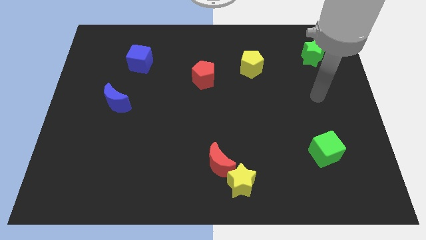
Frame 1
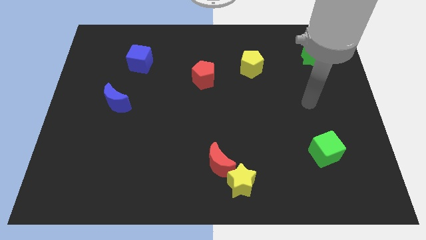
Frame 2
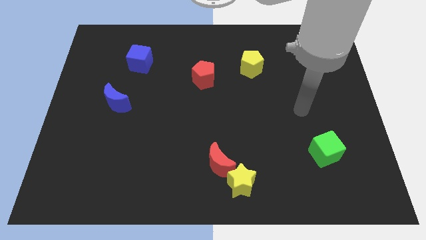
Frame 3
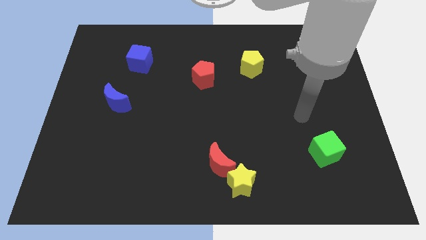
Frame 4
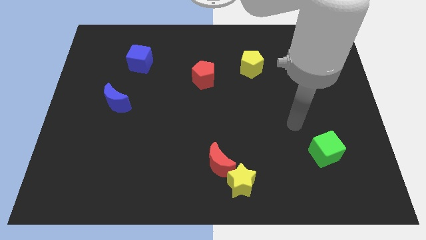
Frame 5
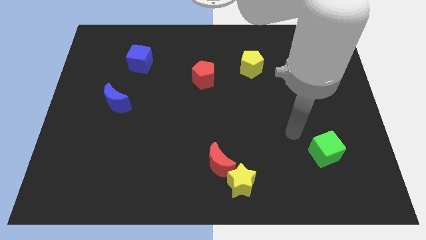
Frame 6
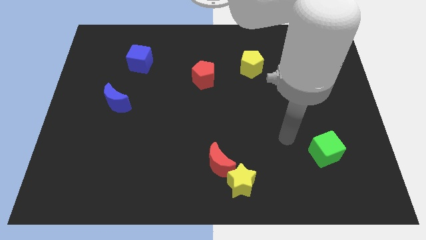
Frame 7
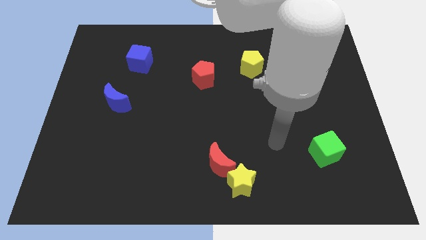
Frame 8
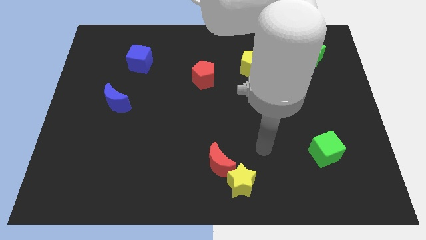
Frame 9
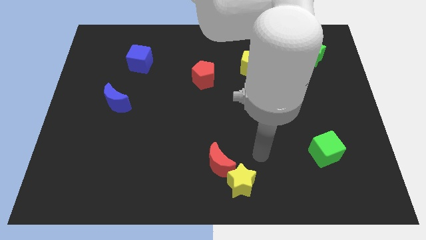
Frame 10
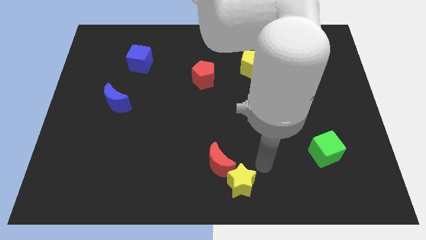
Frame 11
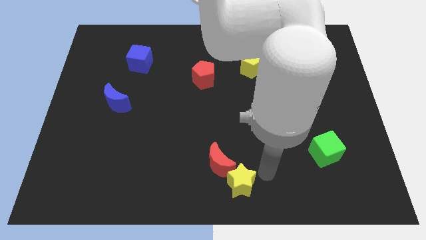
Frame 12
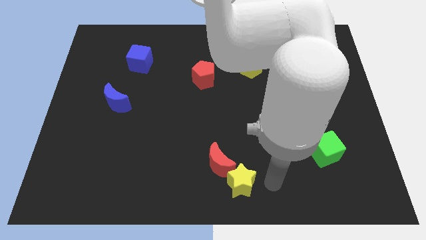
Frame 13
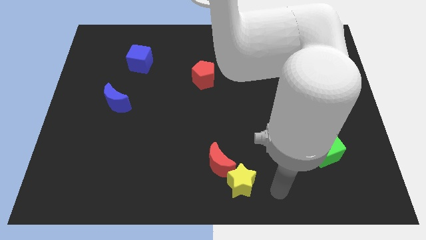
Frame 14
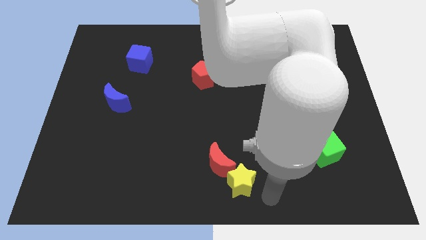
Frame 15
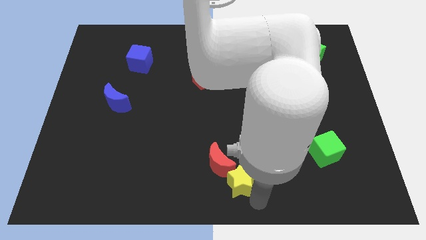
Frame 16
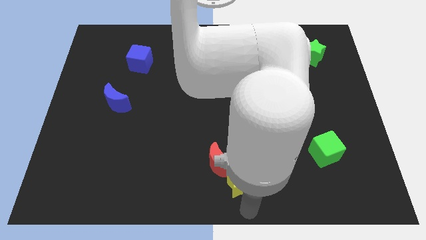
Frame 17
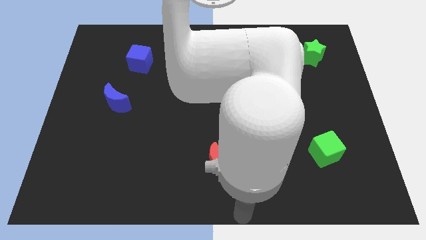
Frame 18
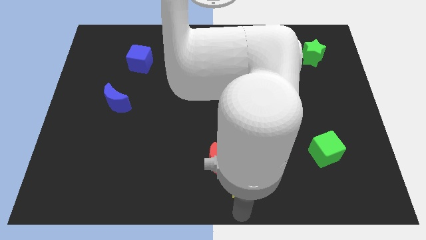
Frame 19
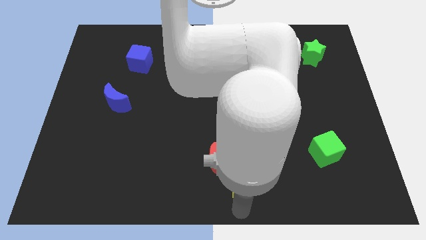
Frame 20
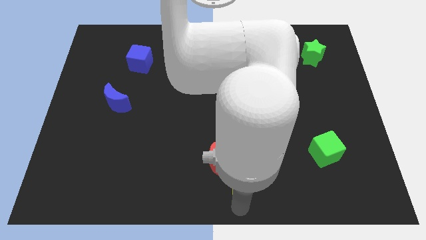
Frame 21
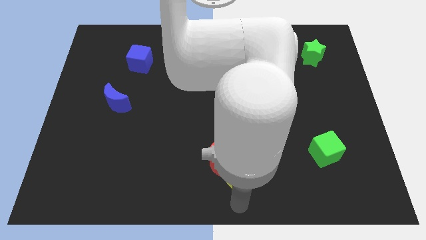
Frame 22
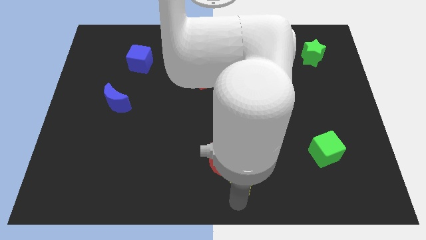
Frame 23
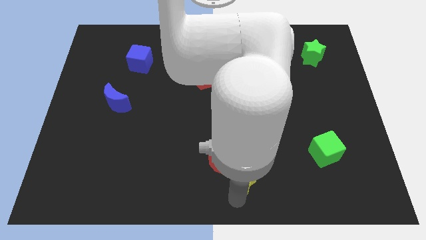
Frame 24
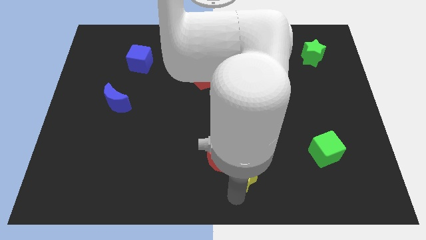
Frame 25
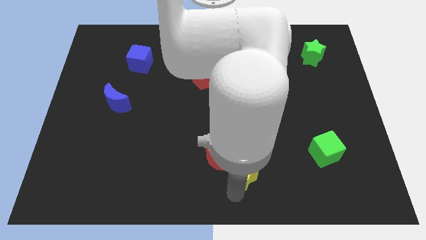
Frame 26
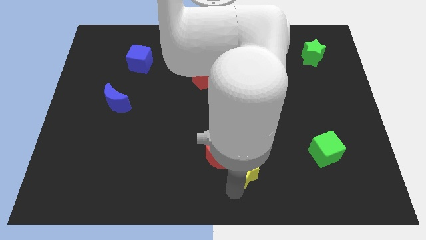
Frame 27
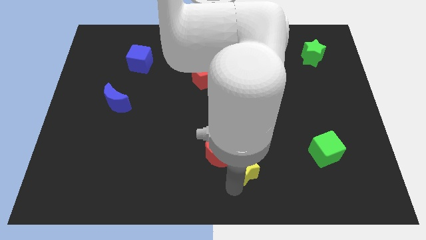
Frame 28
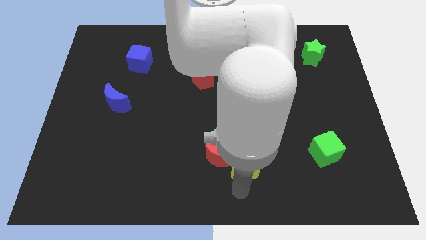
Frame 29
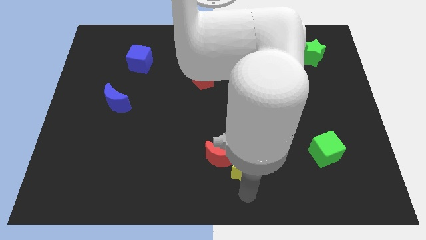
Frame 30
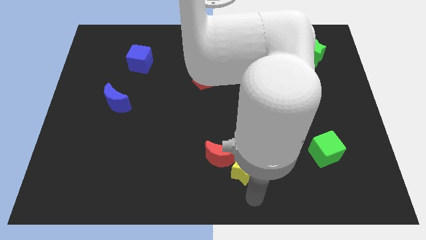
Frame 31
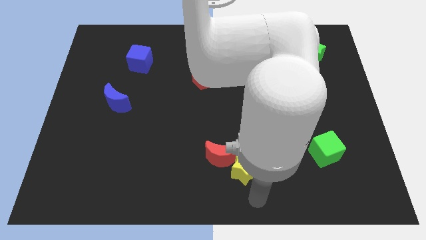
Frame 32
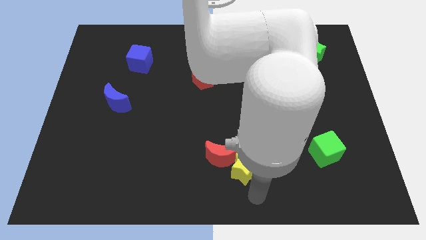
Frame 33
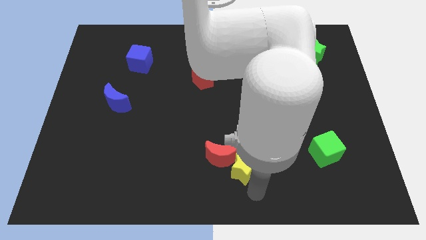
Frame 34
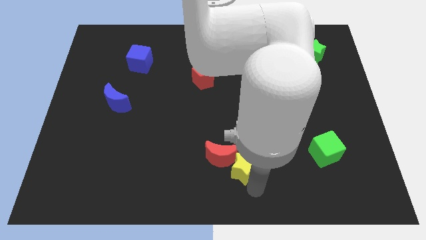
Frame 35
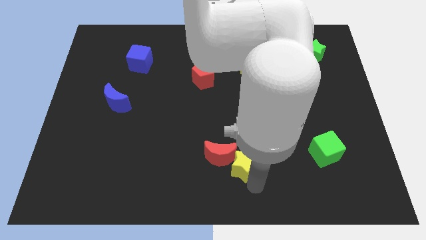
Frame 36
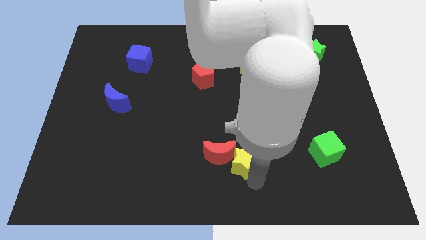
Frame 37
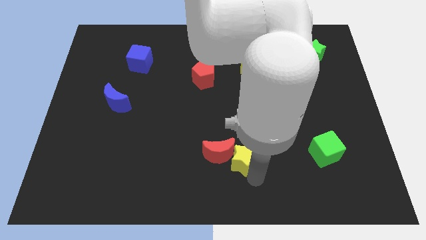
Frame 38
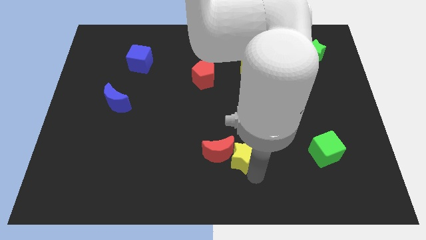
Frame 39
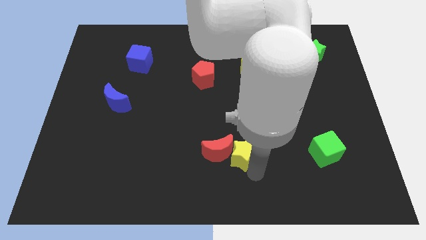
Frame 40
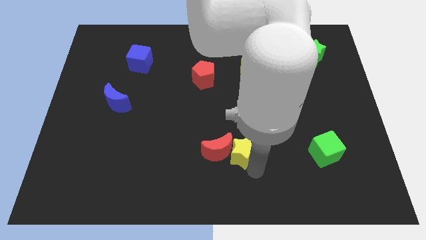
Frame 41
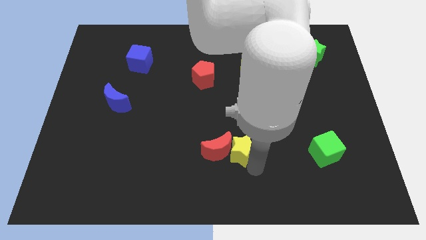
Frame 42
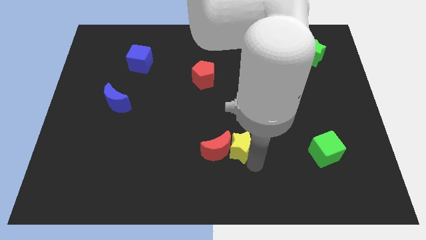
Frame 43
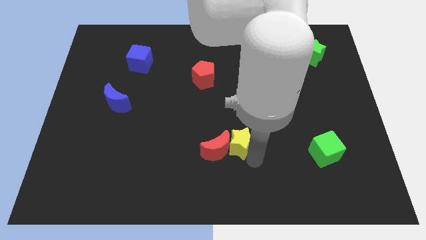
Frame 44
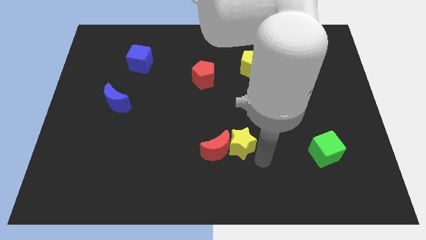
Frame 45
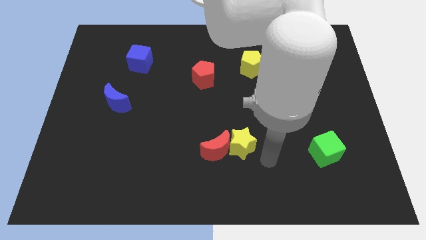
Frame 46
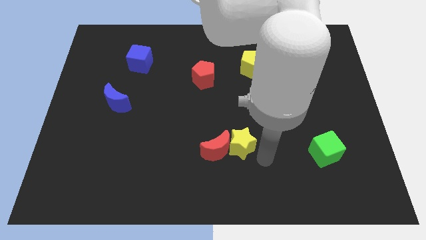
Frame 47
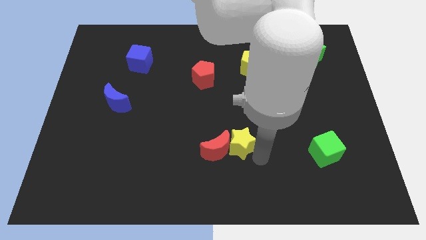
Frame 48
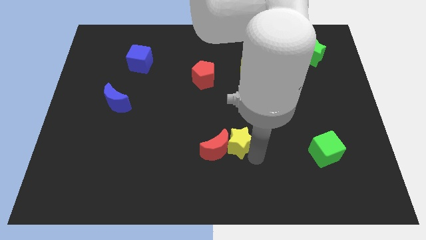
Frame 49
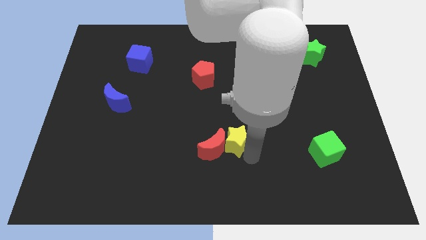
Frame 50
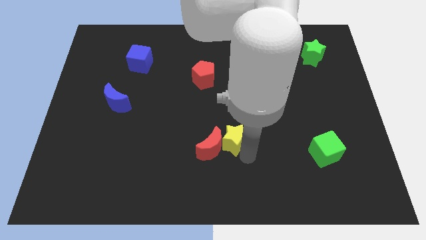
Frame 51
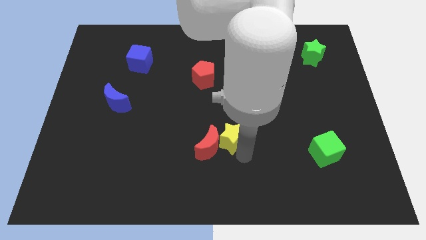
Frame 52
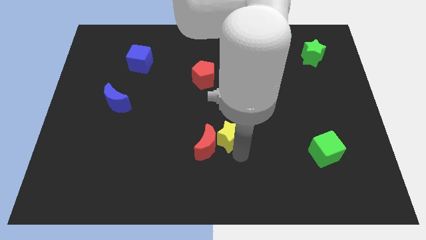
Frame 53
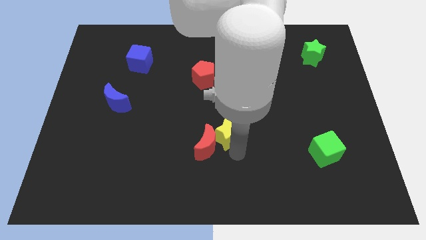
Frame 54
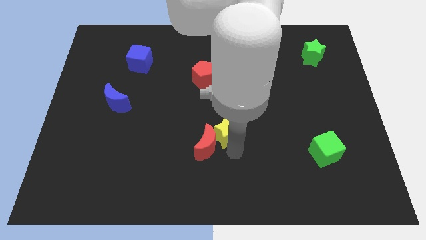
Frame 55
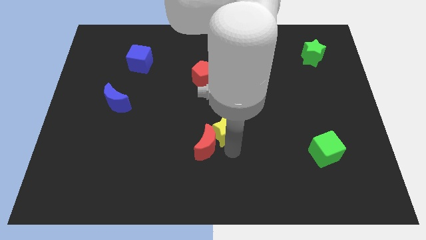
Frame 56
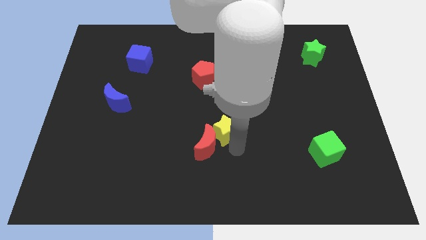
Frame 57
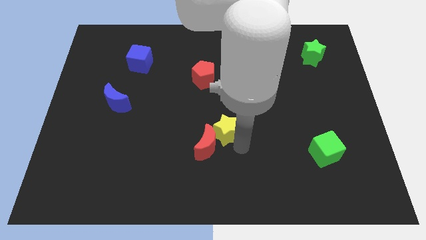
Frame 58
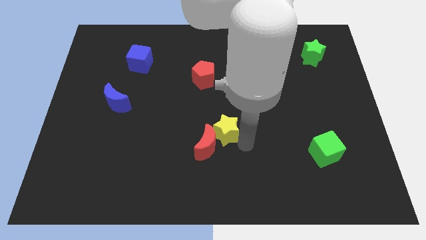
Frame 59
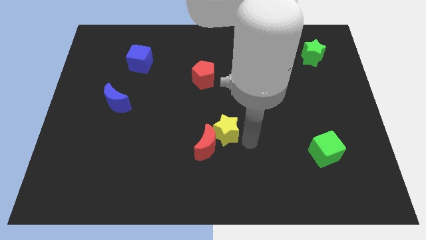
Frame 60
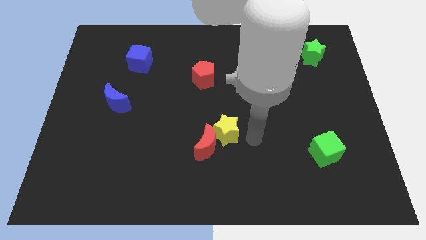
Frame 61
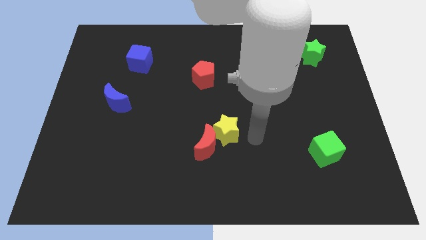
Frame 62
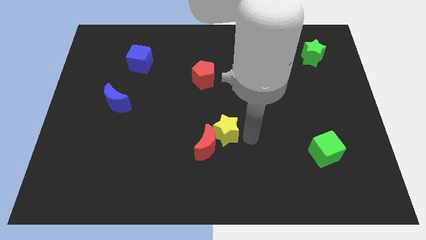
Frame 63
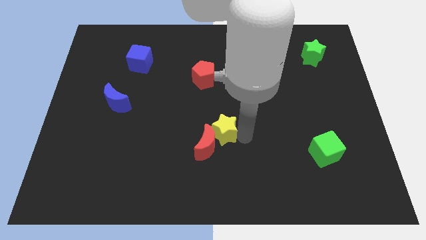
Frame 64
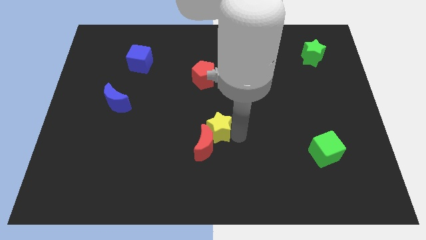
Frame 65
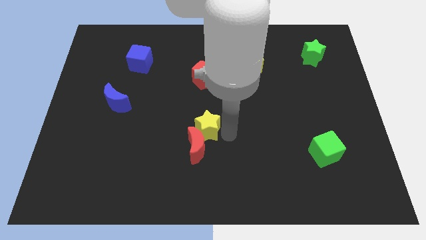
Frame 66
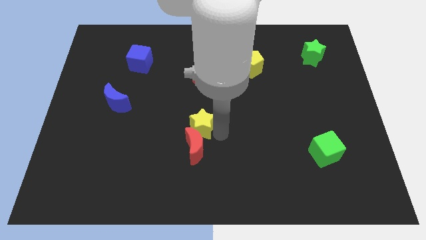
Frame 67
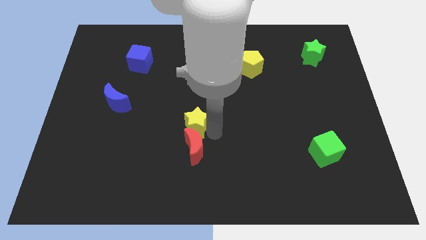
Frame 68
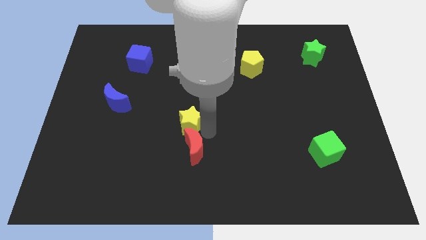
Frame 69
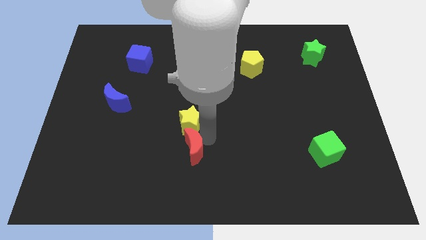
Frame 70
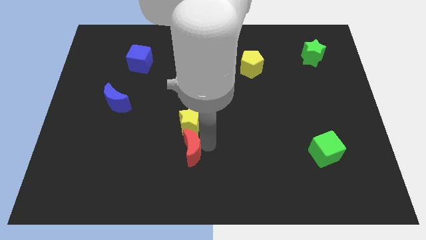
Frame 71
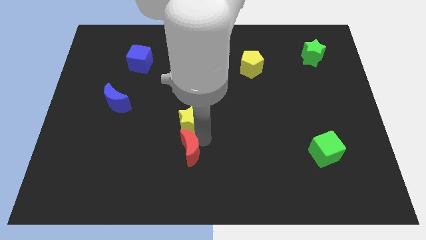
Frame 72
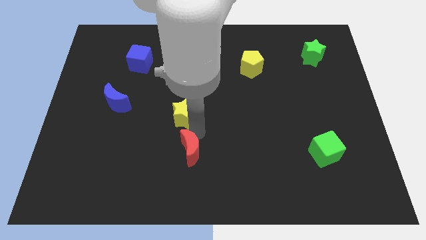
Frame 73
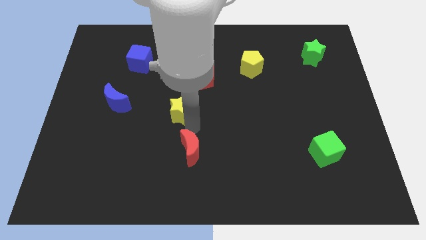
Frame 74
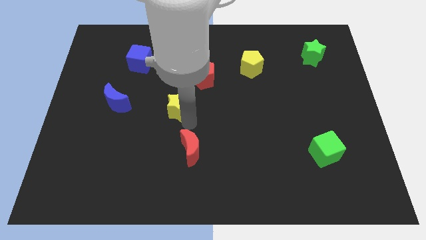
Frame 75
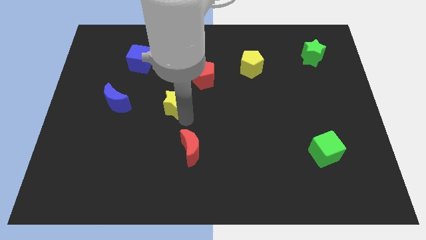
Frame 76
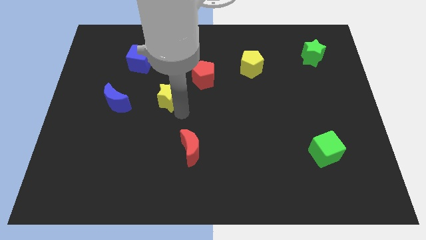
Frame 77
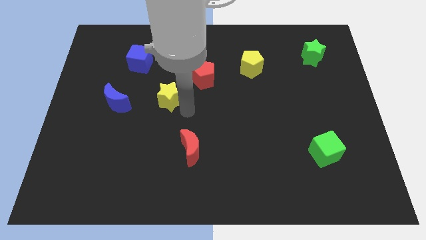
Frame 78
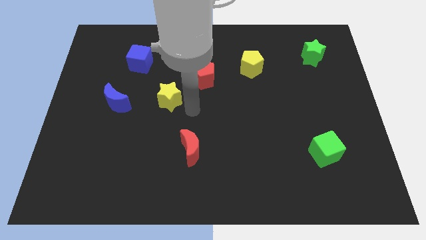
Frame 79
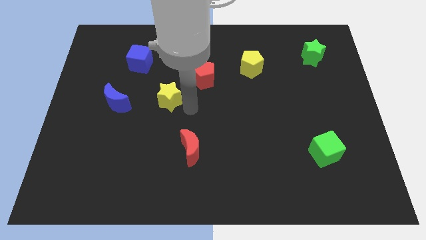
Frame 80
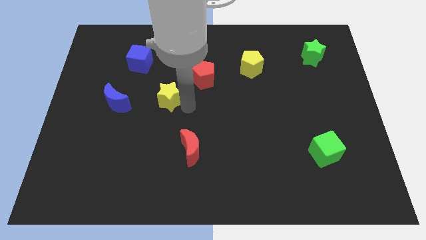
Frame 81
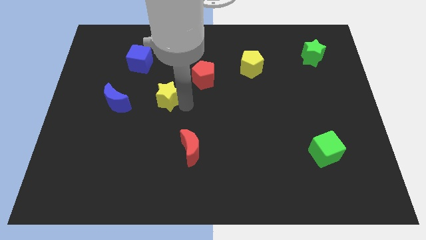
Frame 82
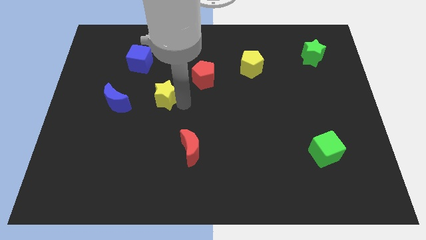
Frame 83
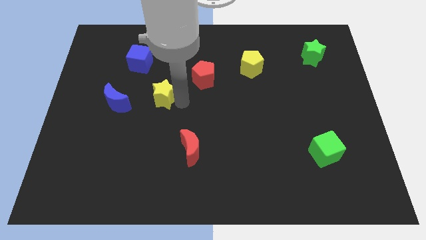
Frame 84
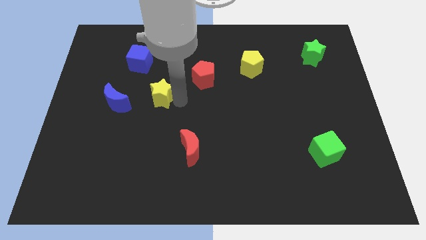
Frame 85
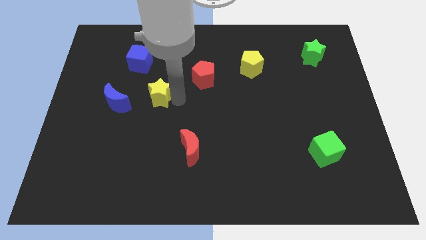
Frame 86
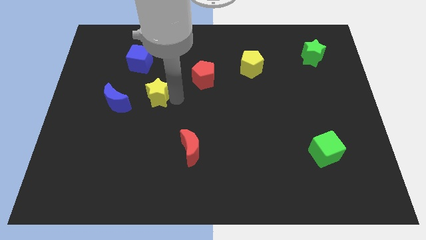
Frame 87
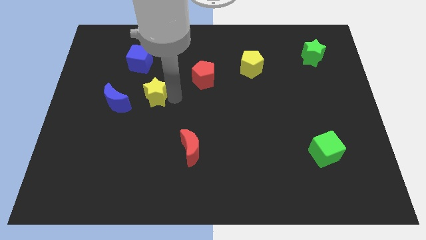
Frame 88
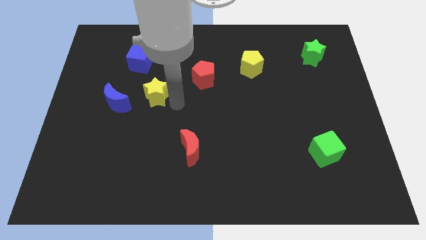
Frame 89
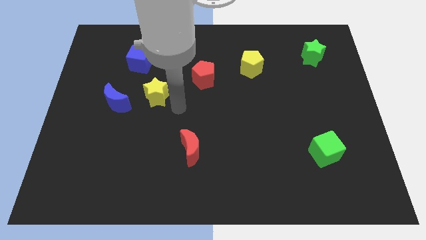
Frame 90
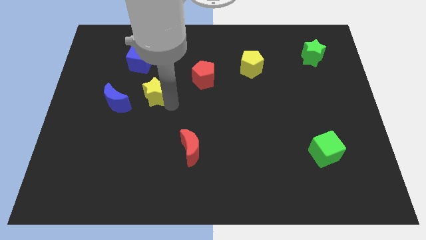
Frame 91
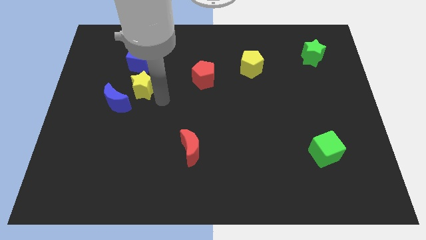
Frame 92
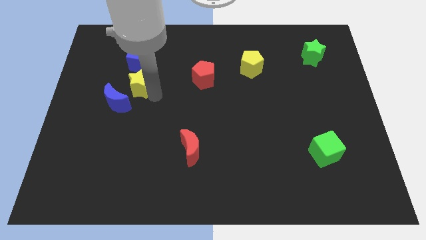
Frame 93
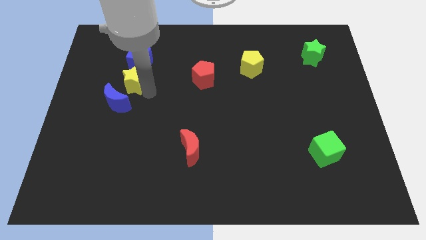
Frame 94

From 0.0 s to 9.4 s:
push the yellow star to the bottom left side of the blue cube
